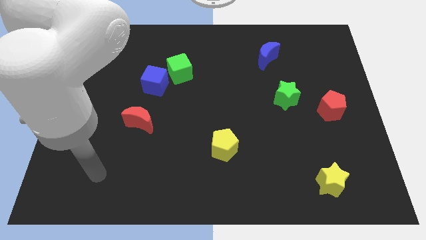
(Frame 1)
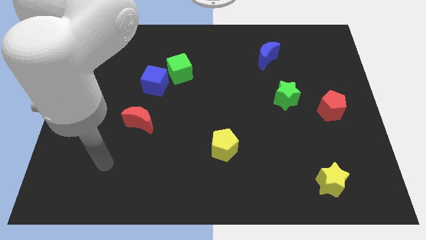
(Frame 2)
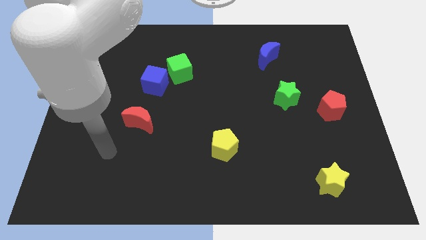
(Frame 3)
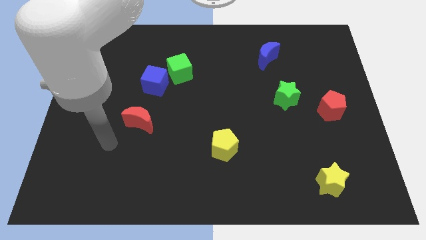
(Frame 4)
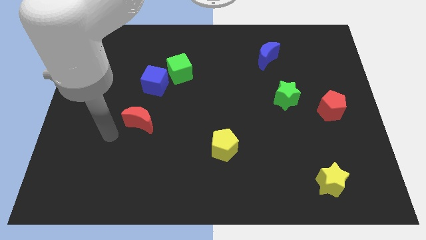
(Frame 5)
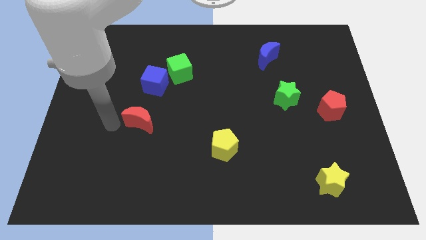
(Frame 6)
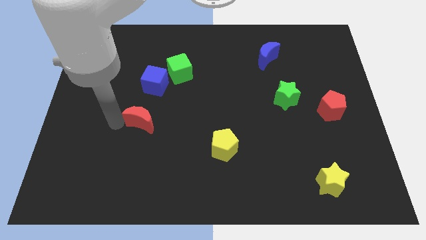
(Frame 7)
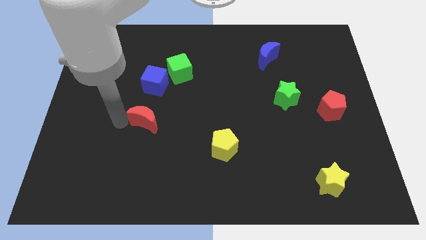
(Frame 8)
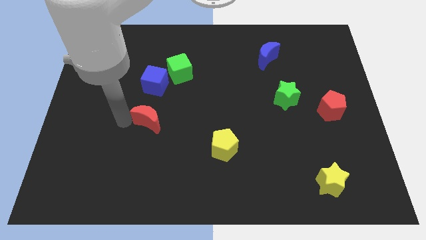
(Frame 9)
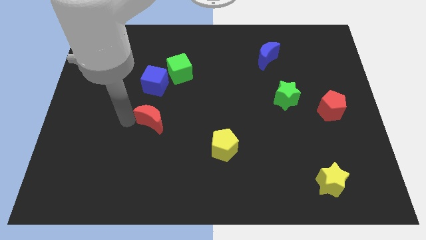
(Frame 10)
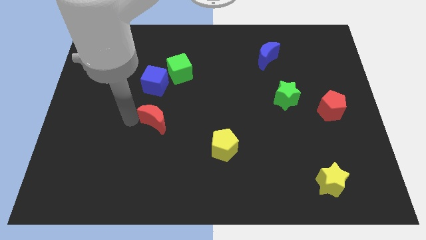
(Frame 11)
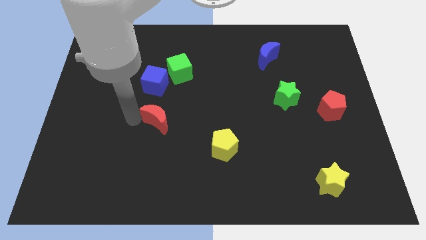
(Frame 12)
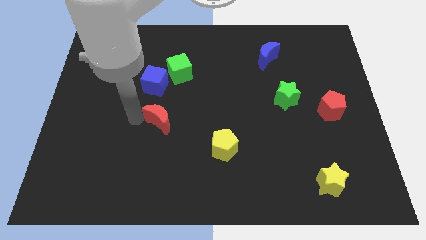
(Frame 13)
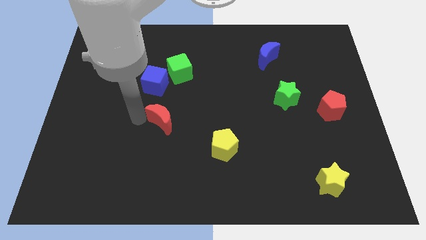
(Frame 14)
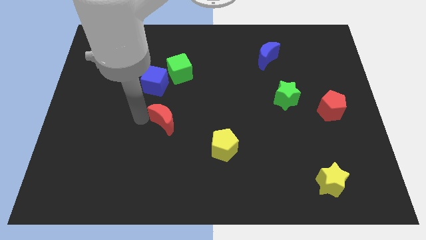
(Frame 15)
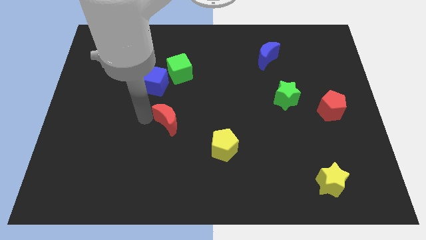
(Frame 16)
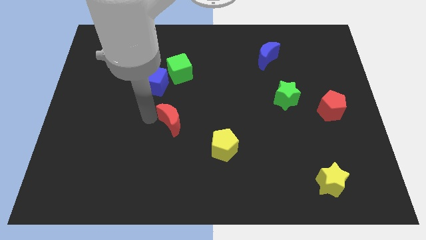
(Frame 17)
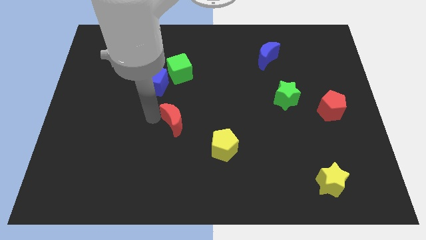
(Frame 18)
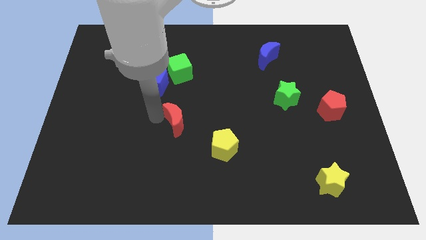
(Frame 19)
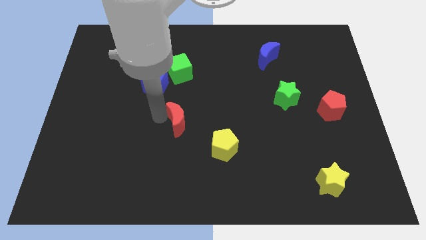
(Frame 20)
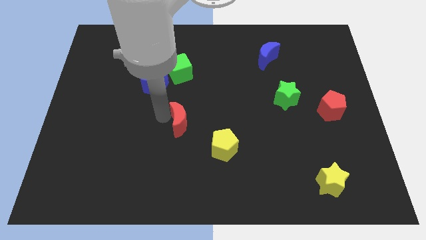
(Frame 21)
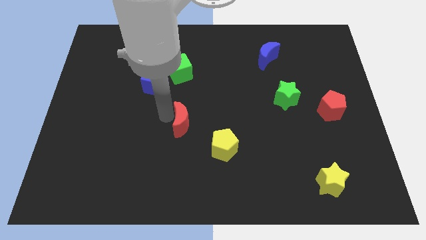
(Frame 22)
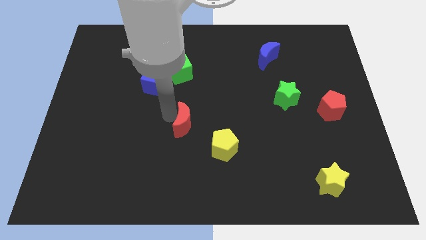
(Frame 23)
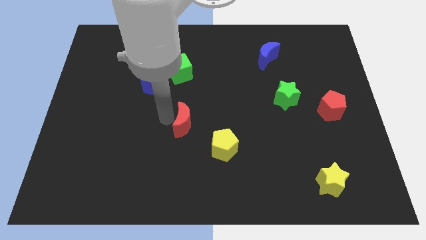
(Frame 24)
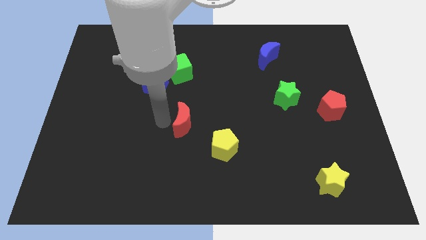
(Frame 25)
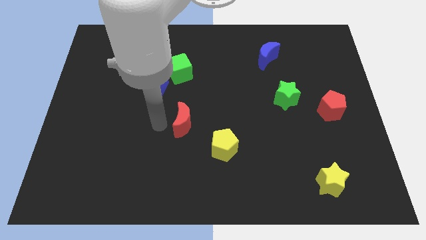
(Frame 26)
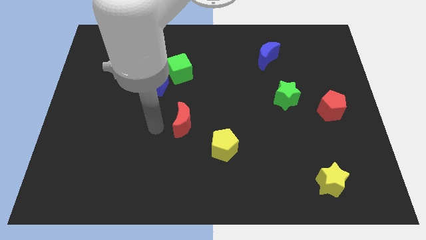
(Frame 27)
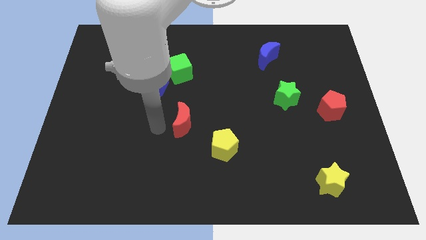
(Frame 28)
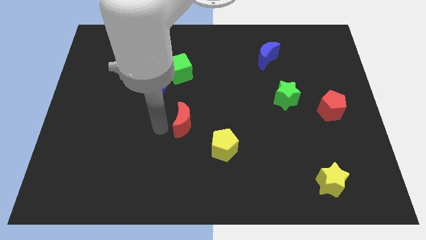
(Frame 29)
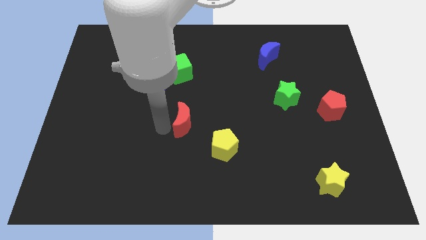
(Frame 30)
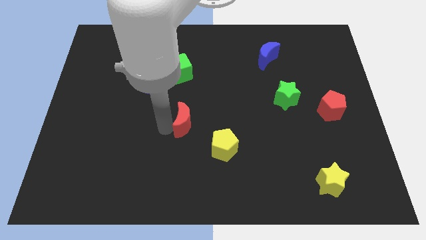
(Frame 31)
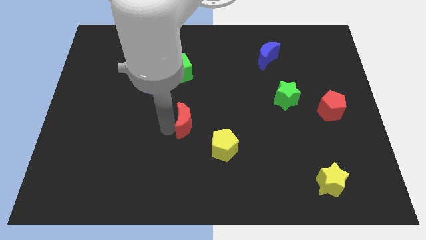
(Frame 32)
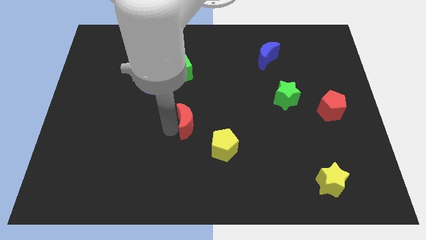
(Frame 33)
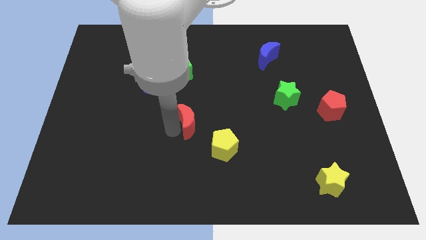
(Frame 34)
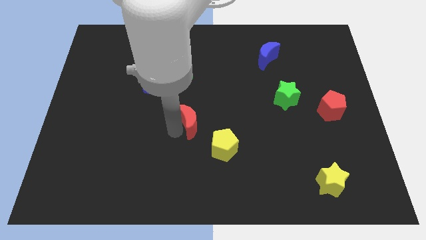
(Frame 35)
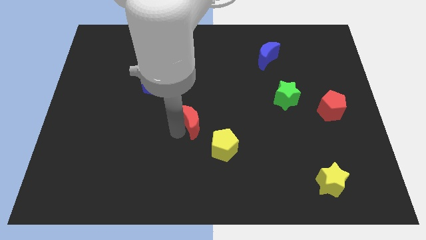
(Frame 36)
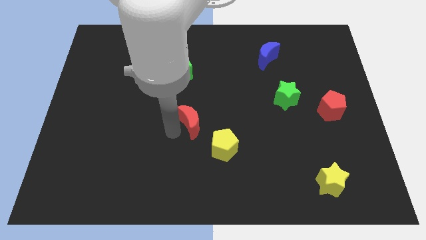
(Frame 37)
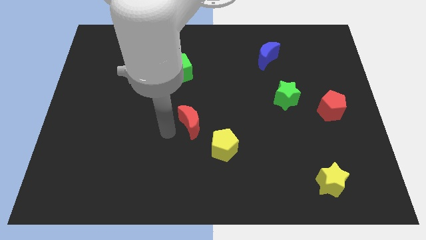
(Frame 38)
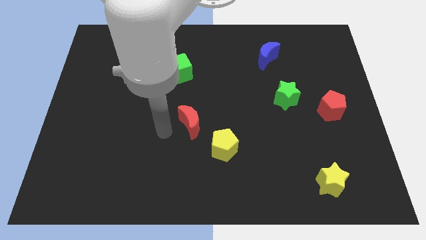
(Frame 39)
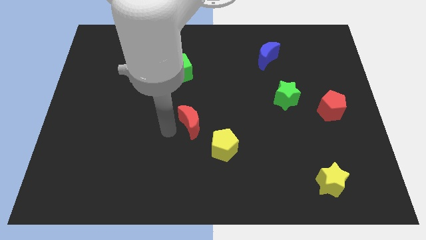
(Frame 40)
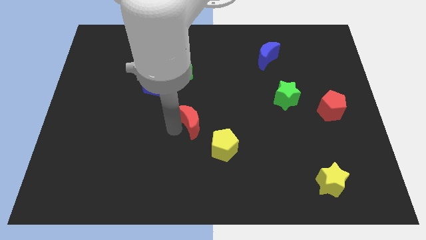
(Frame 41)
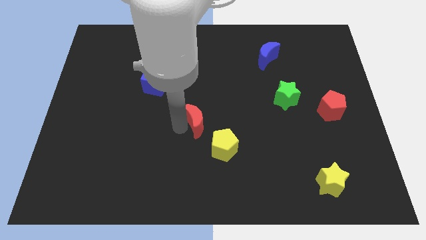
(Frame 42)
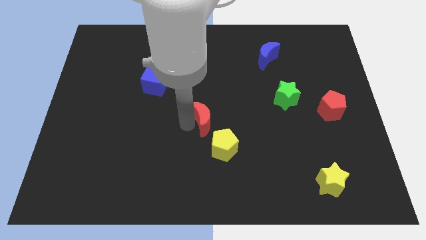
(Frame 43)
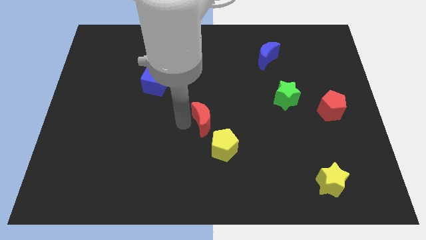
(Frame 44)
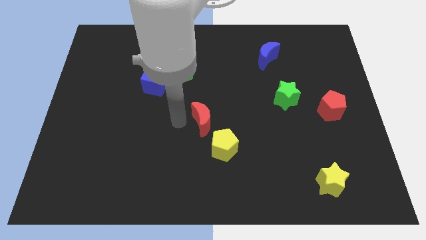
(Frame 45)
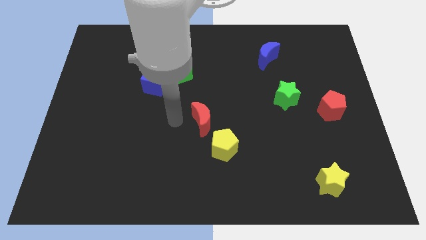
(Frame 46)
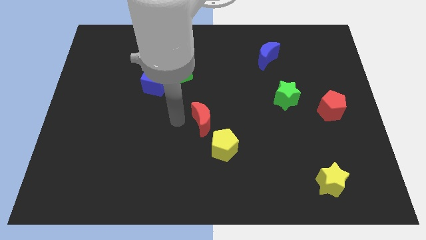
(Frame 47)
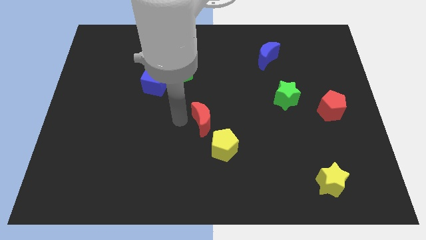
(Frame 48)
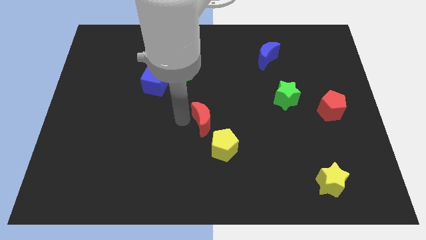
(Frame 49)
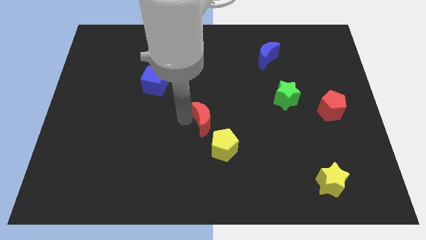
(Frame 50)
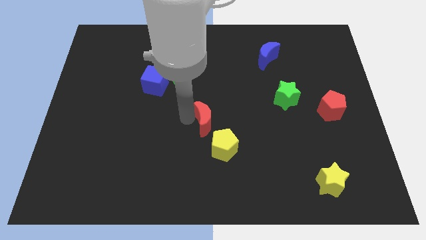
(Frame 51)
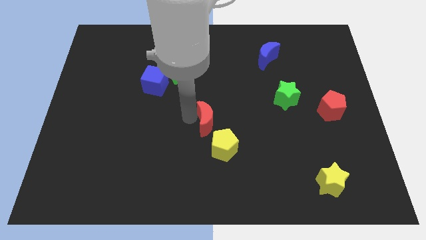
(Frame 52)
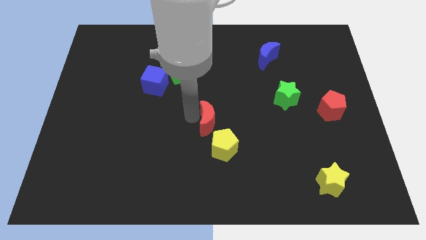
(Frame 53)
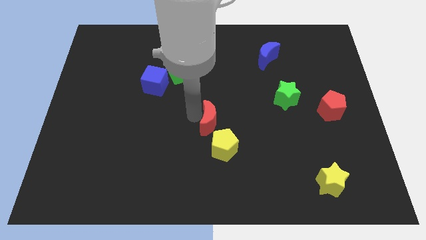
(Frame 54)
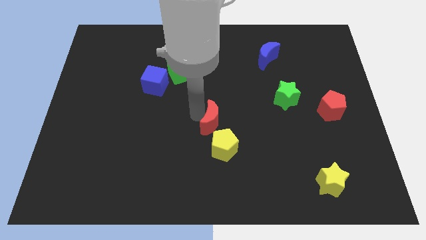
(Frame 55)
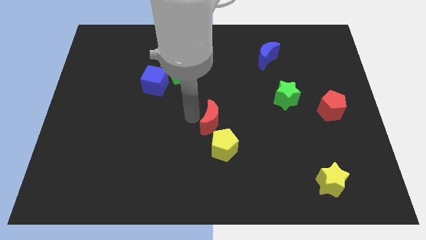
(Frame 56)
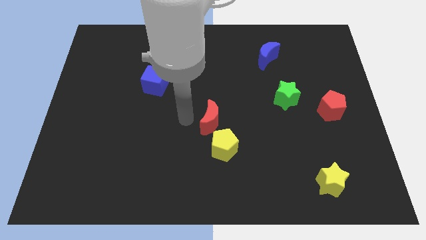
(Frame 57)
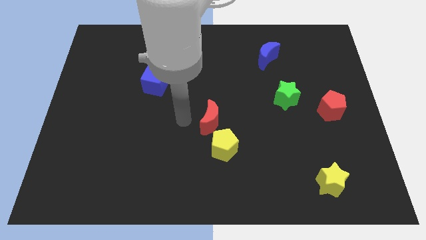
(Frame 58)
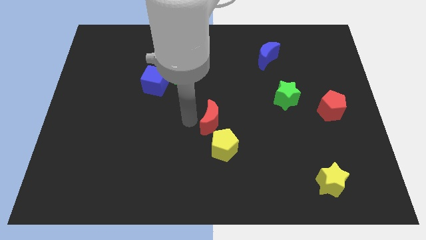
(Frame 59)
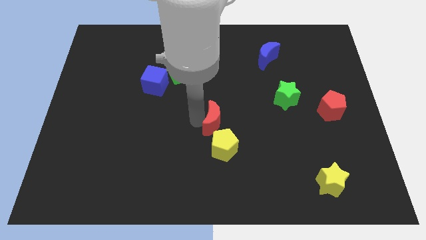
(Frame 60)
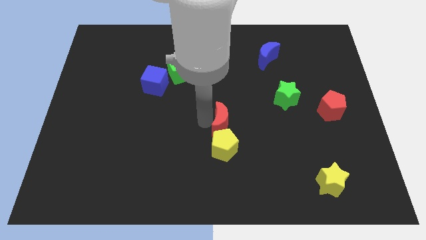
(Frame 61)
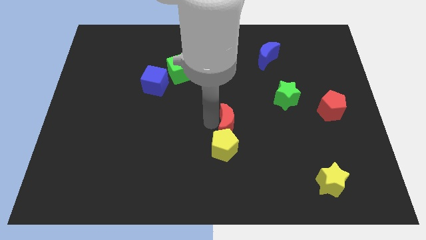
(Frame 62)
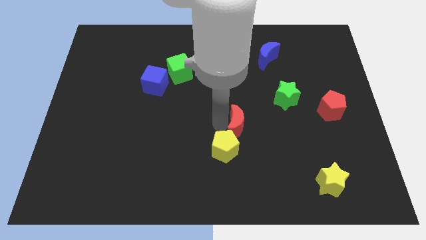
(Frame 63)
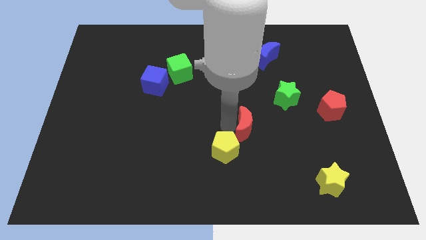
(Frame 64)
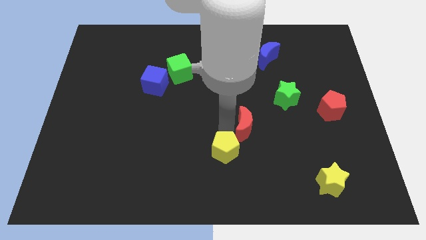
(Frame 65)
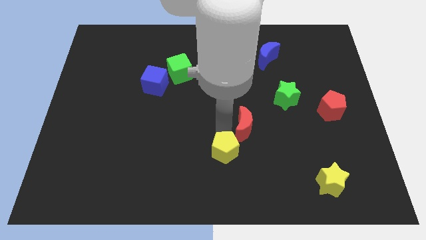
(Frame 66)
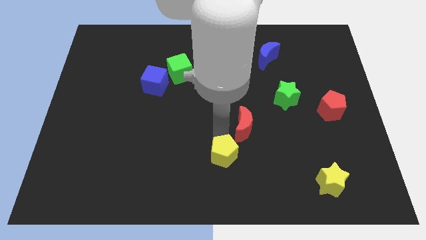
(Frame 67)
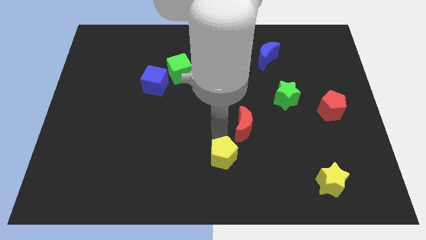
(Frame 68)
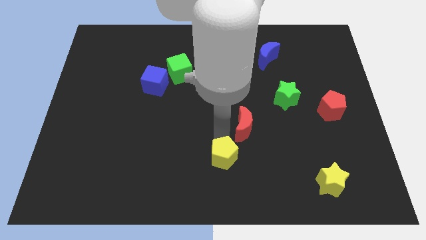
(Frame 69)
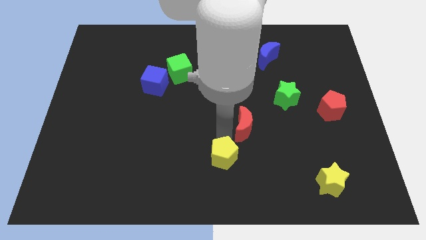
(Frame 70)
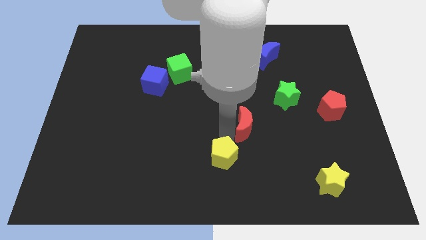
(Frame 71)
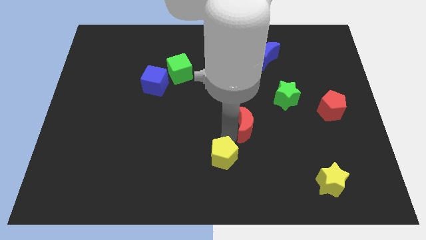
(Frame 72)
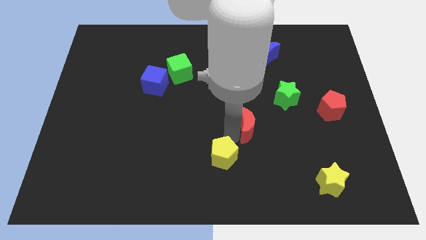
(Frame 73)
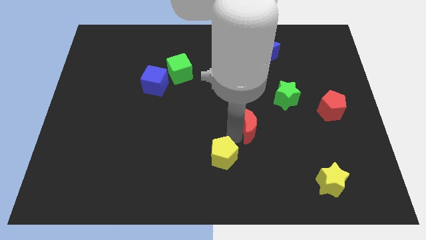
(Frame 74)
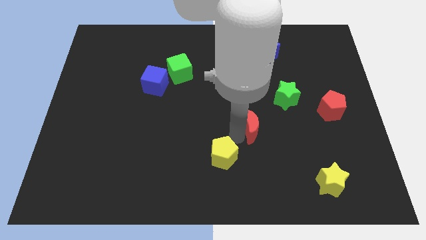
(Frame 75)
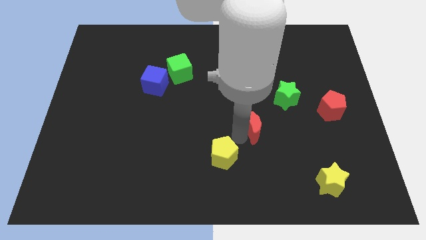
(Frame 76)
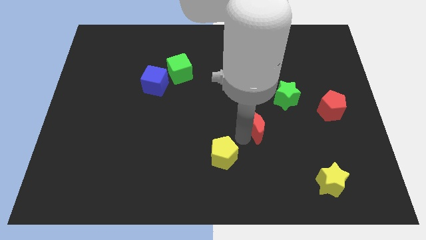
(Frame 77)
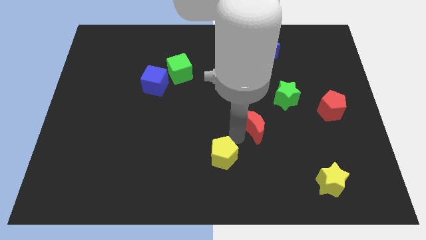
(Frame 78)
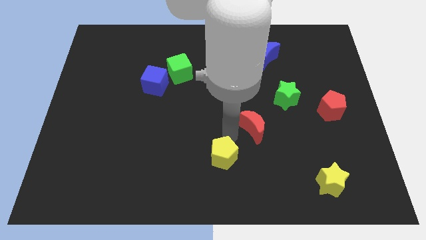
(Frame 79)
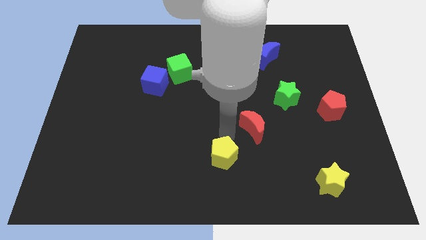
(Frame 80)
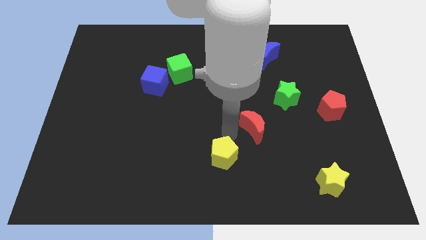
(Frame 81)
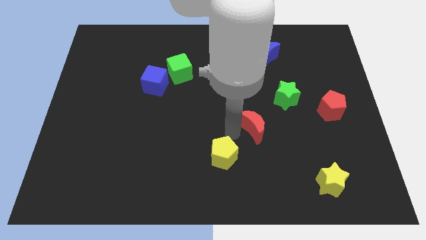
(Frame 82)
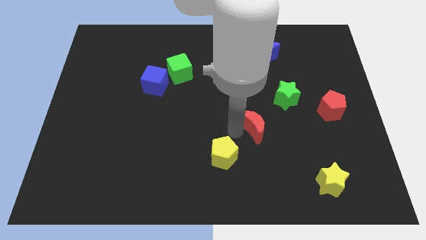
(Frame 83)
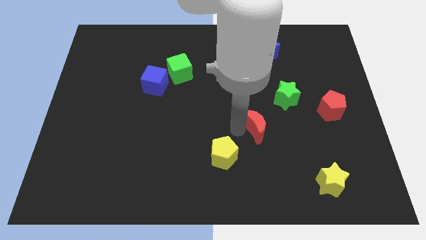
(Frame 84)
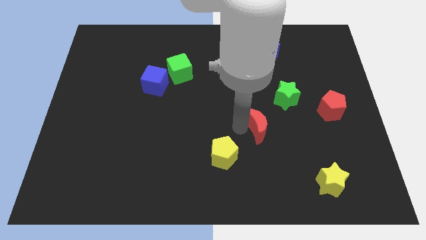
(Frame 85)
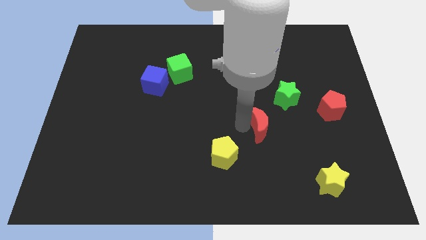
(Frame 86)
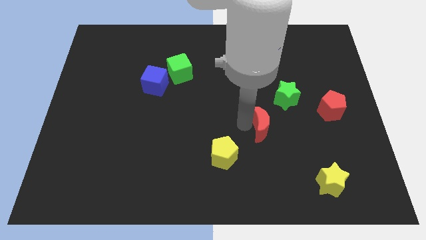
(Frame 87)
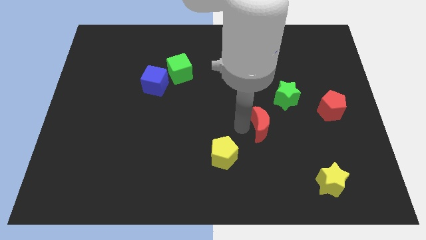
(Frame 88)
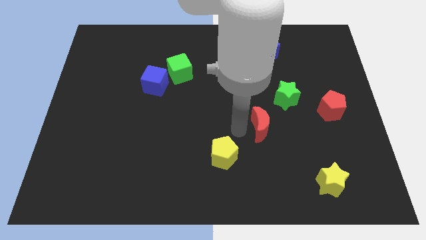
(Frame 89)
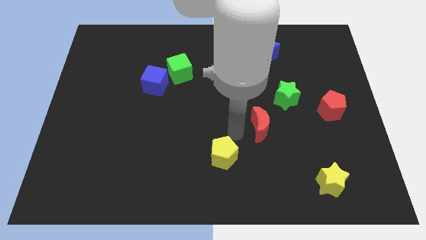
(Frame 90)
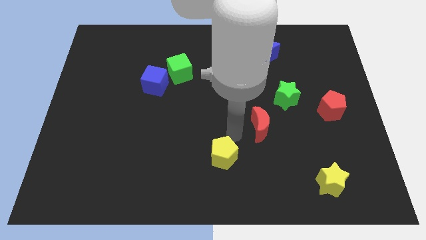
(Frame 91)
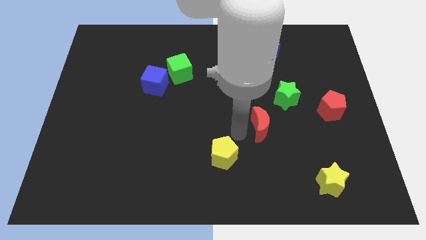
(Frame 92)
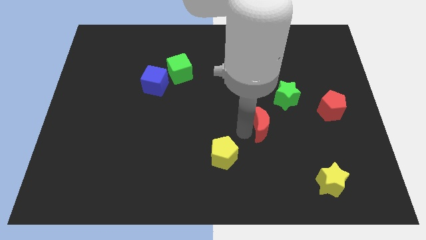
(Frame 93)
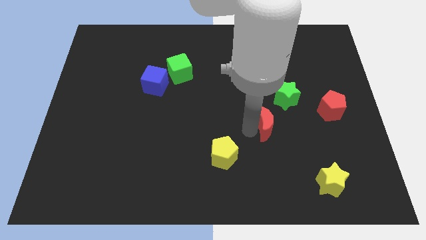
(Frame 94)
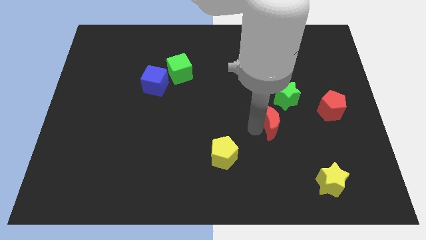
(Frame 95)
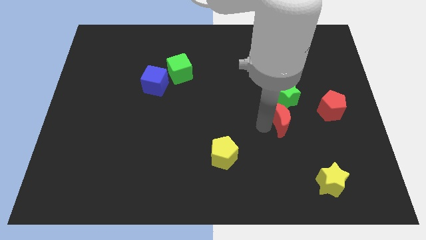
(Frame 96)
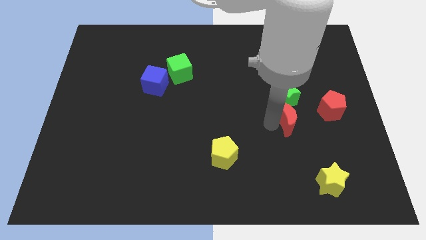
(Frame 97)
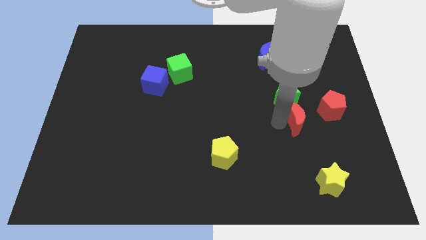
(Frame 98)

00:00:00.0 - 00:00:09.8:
move the red moon to the bottom right side of the green star
